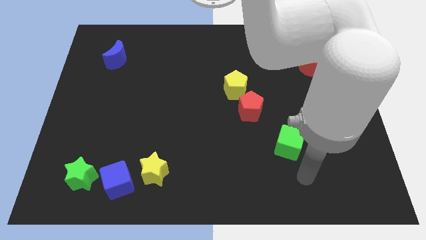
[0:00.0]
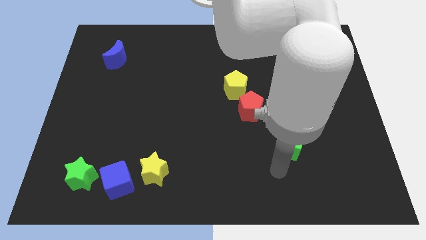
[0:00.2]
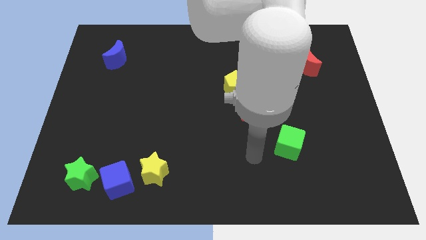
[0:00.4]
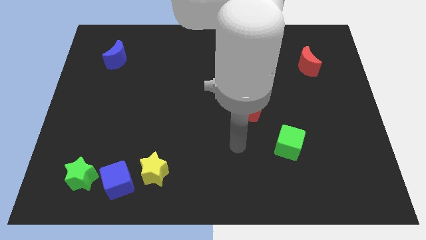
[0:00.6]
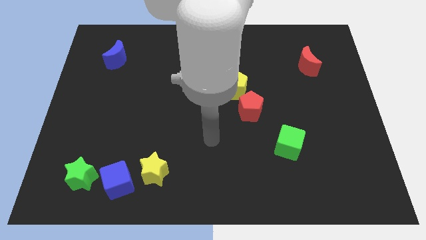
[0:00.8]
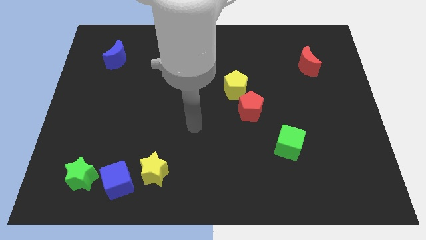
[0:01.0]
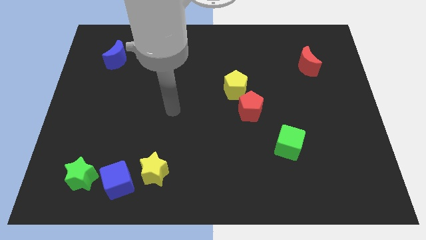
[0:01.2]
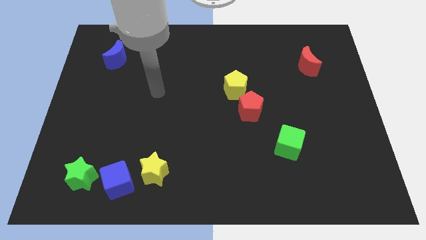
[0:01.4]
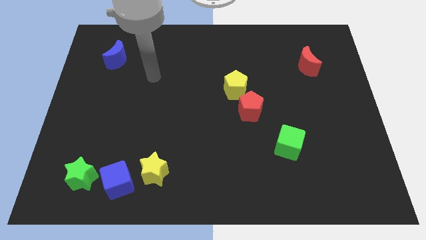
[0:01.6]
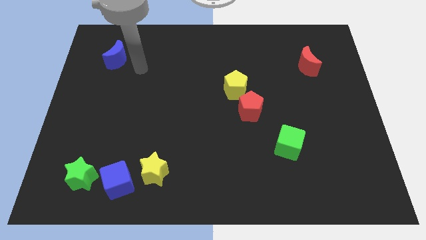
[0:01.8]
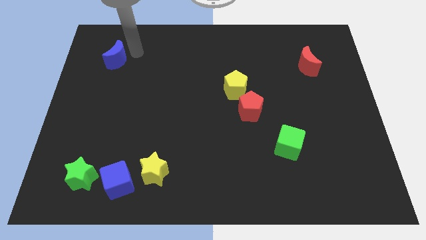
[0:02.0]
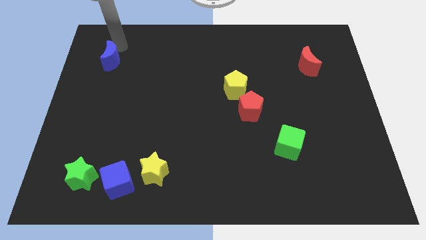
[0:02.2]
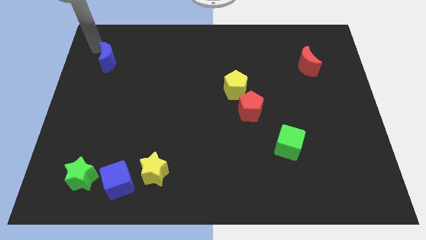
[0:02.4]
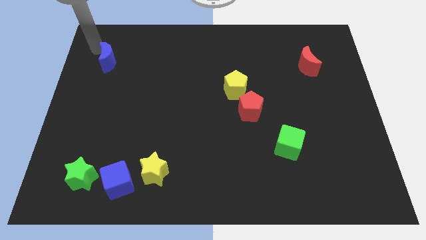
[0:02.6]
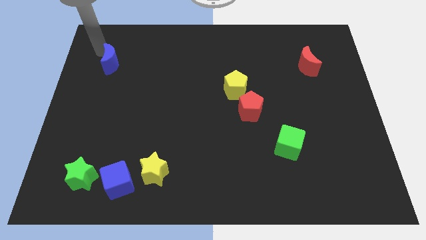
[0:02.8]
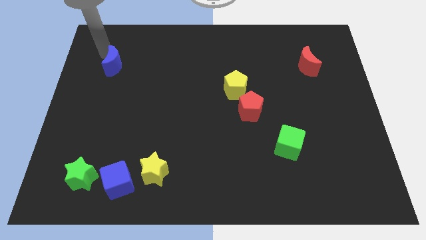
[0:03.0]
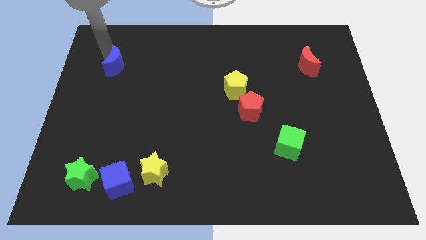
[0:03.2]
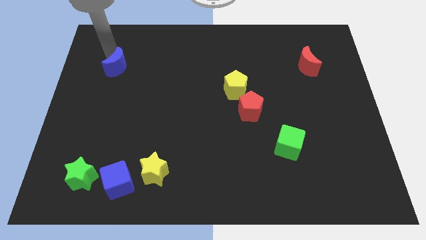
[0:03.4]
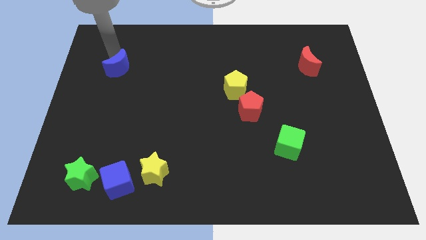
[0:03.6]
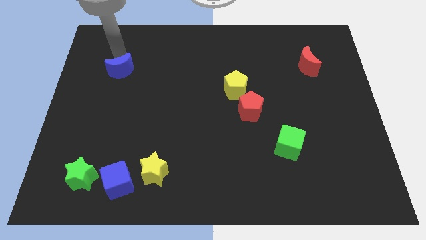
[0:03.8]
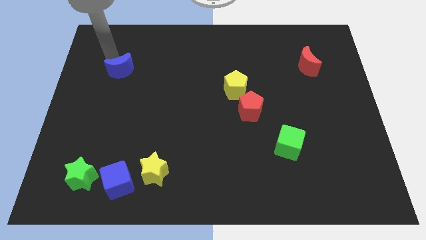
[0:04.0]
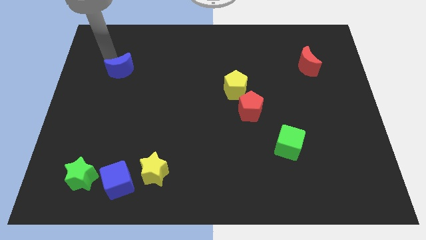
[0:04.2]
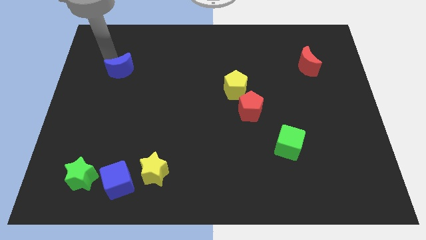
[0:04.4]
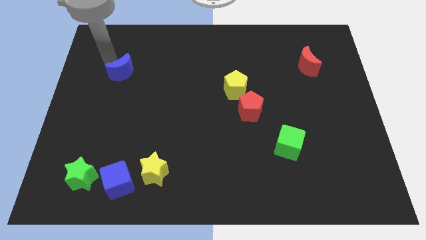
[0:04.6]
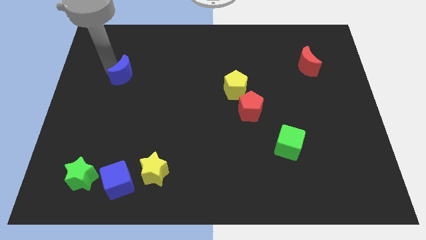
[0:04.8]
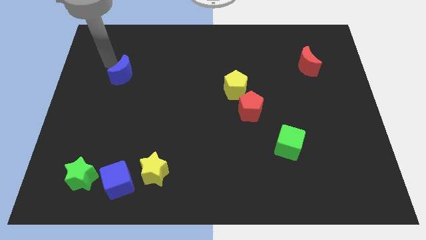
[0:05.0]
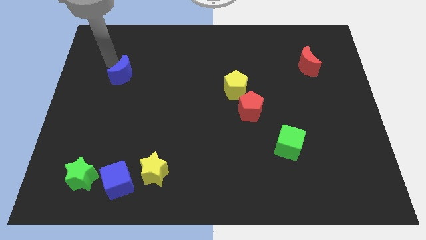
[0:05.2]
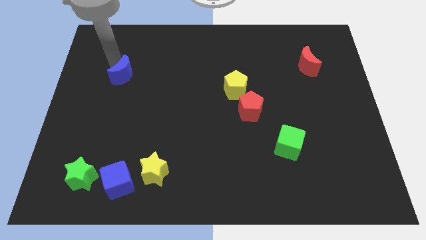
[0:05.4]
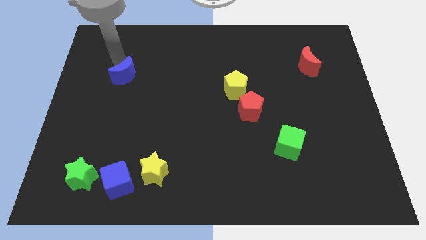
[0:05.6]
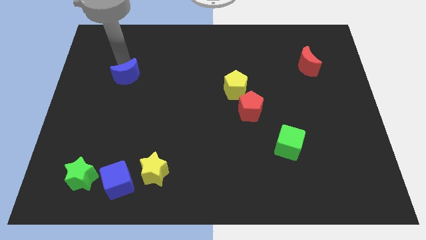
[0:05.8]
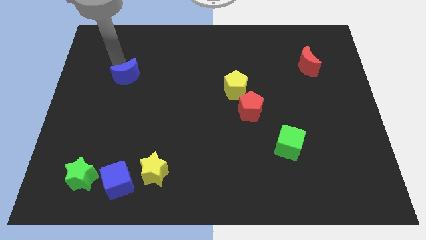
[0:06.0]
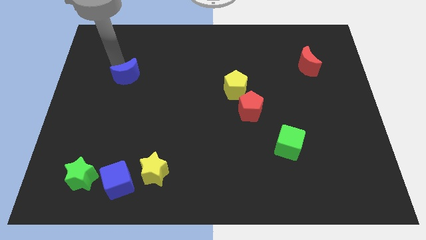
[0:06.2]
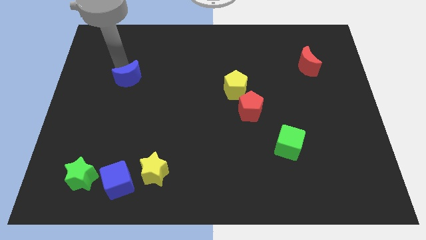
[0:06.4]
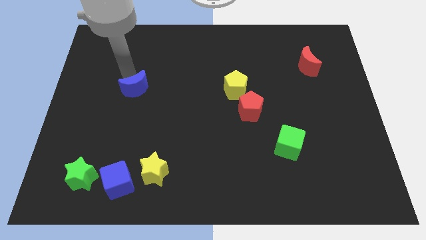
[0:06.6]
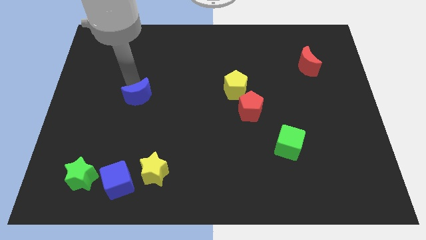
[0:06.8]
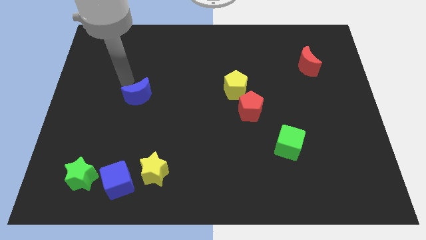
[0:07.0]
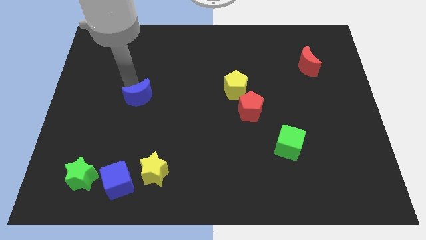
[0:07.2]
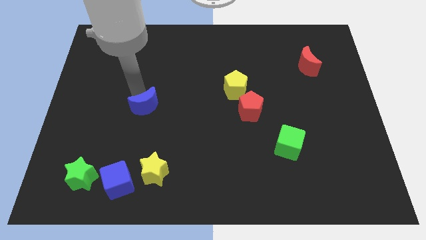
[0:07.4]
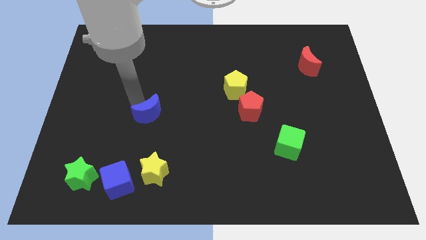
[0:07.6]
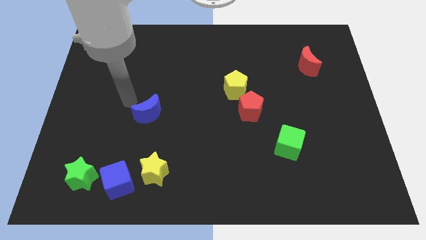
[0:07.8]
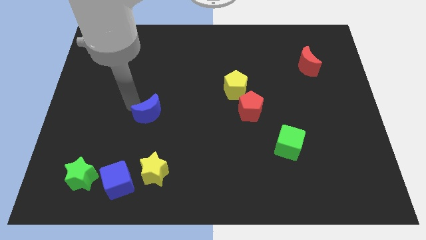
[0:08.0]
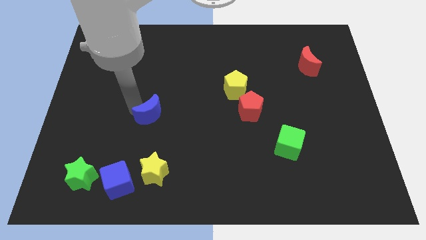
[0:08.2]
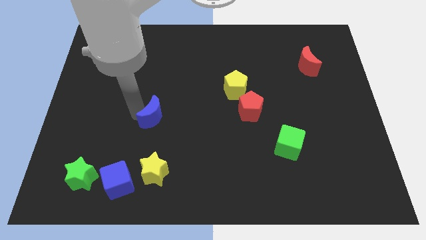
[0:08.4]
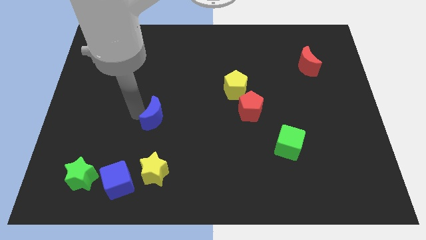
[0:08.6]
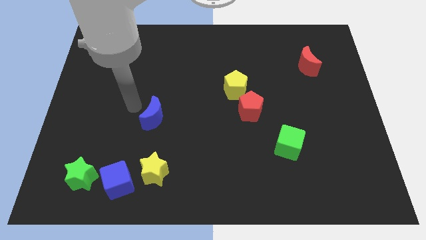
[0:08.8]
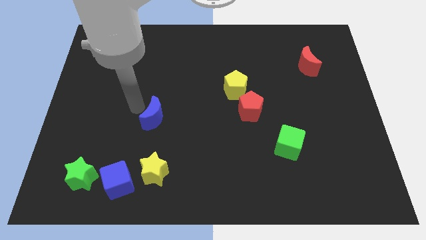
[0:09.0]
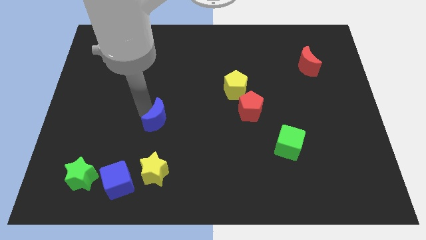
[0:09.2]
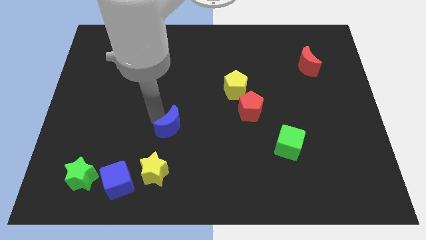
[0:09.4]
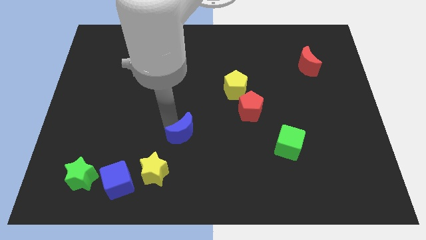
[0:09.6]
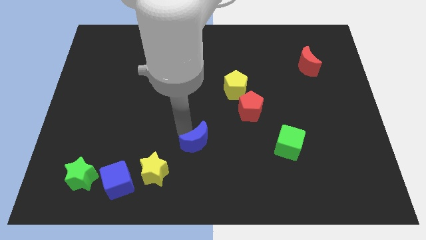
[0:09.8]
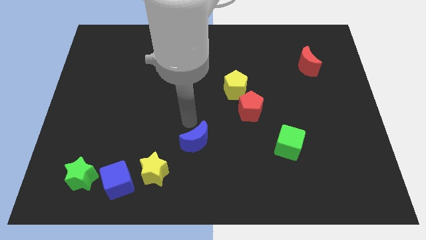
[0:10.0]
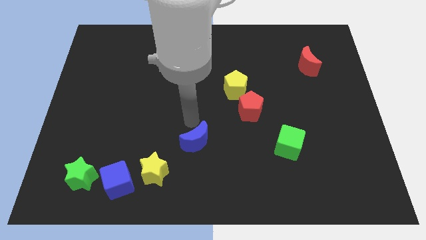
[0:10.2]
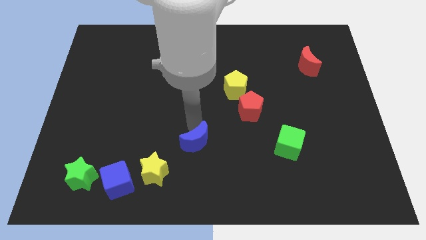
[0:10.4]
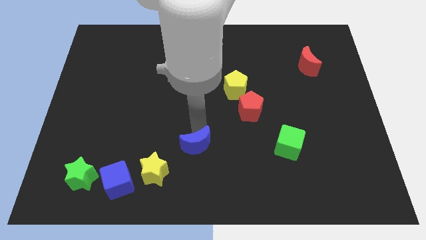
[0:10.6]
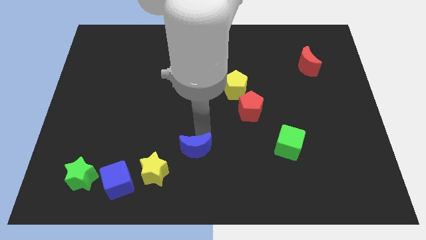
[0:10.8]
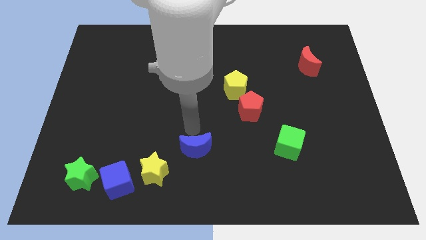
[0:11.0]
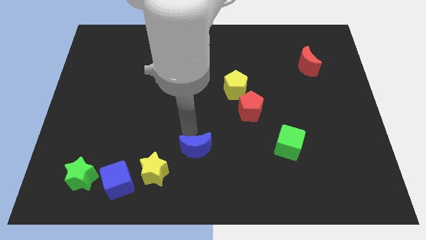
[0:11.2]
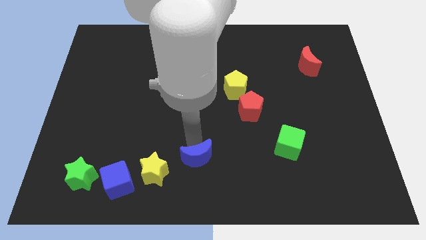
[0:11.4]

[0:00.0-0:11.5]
move the blue moon just right of the yellow star

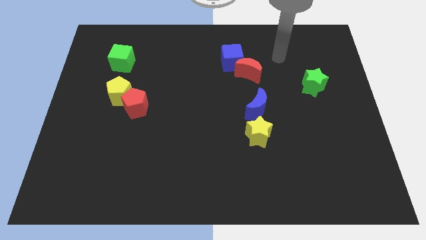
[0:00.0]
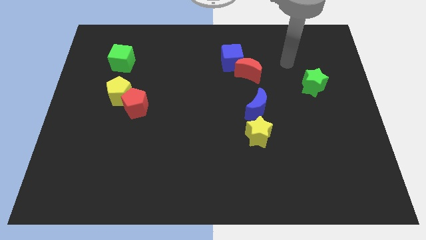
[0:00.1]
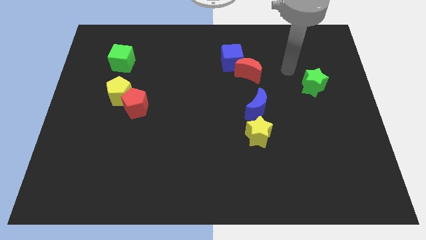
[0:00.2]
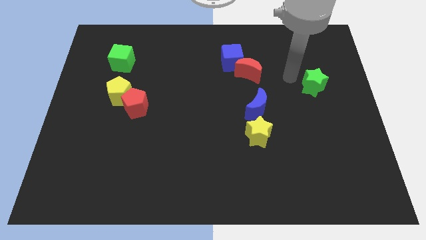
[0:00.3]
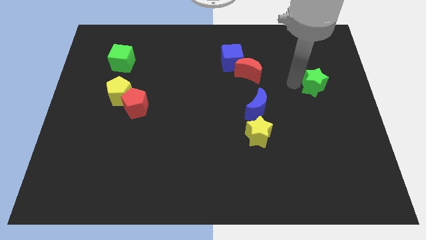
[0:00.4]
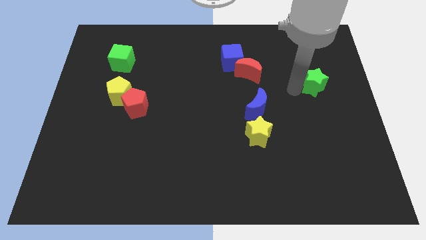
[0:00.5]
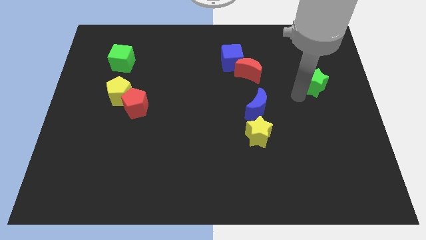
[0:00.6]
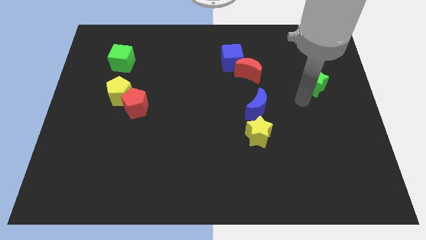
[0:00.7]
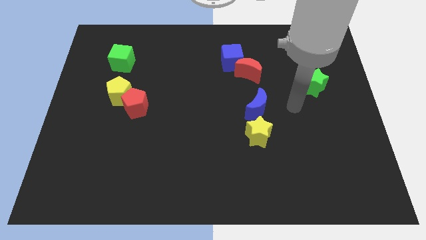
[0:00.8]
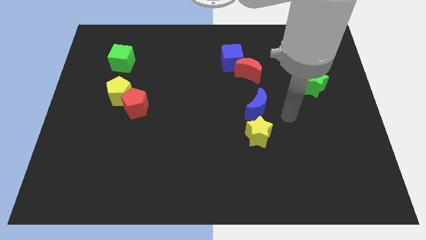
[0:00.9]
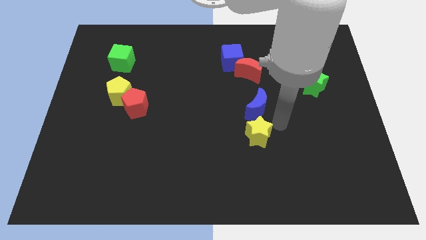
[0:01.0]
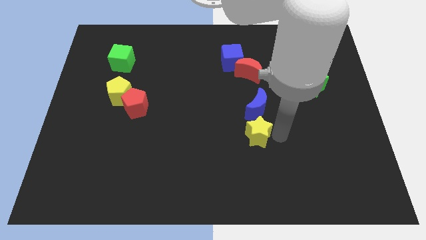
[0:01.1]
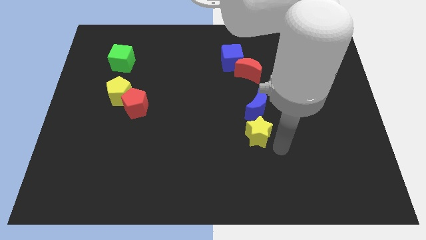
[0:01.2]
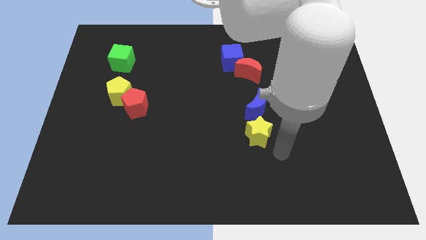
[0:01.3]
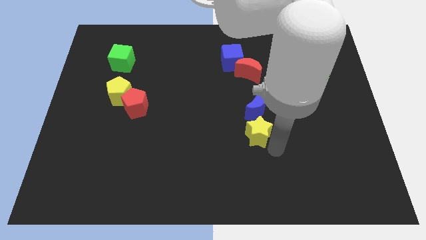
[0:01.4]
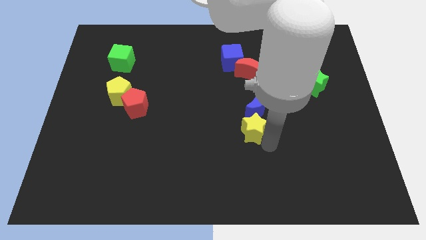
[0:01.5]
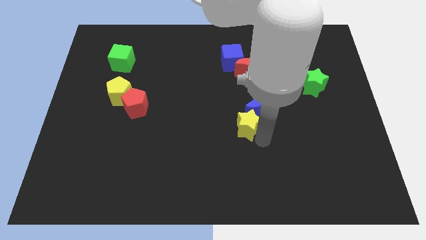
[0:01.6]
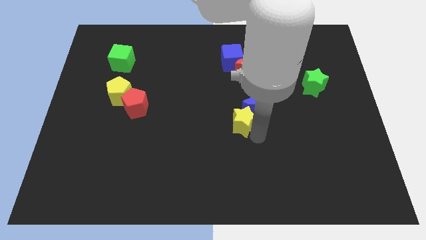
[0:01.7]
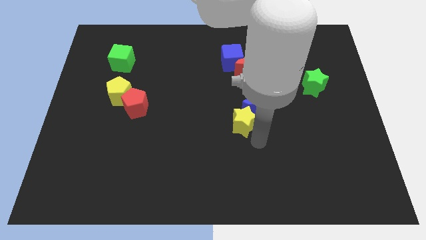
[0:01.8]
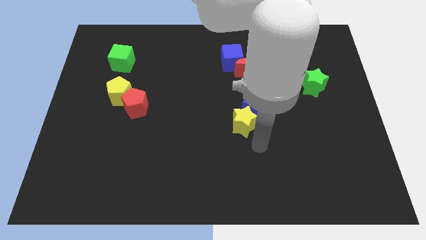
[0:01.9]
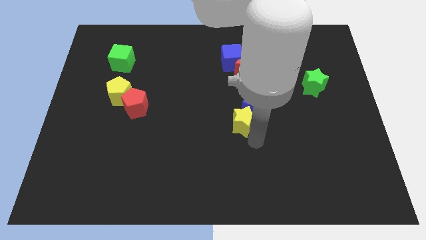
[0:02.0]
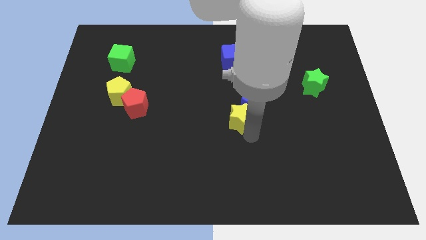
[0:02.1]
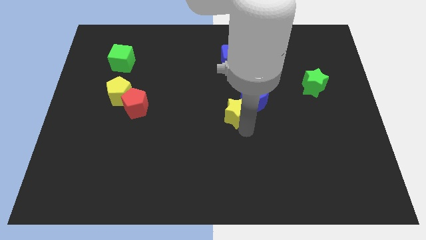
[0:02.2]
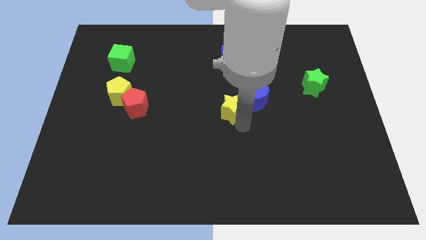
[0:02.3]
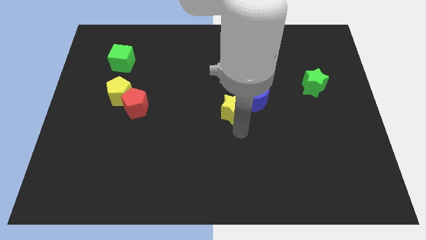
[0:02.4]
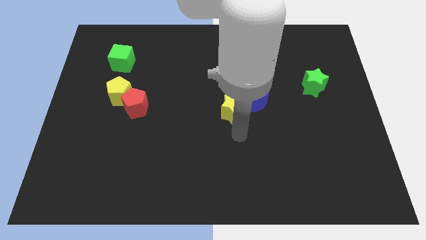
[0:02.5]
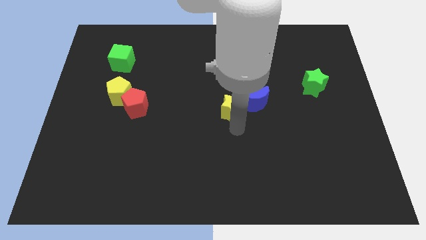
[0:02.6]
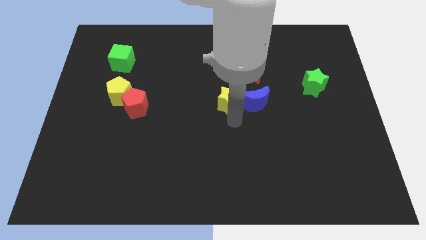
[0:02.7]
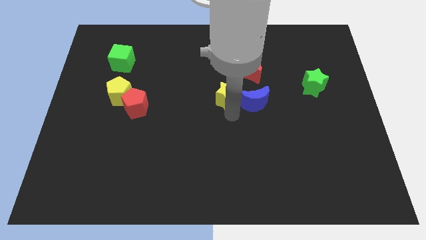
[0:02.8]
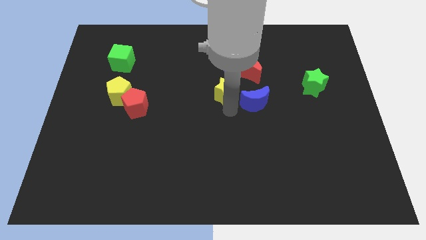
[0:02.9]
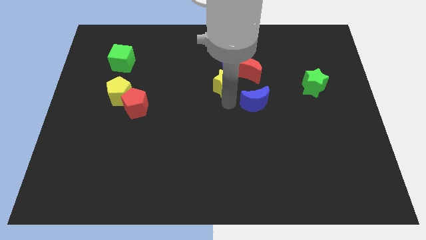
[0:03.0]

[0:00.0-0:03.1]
put the yellow star left of the red moon
